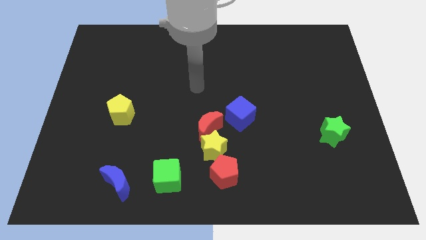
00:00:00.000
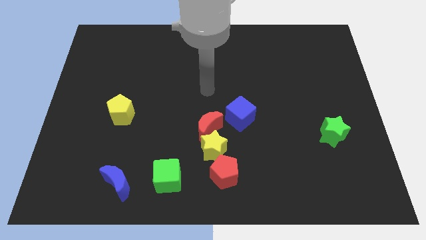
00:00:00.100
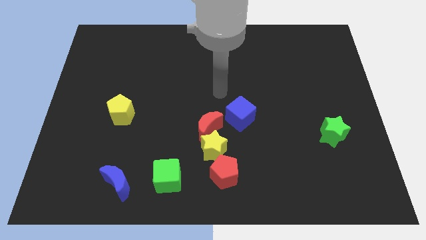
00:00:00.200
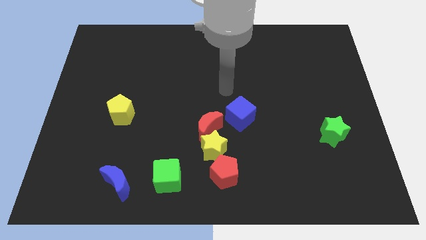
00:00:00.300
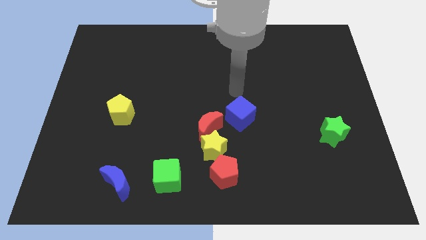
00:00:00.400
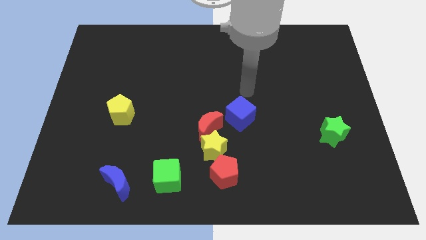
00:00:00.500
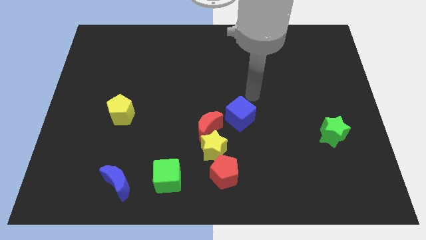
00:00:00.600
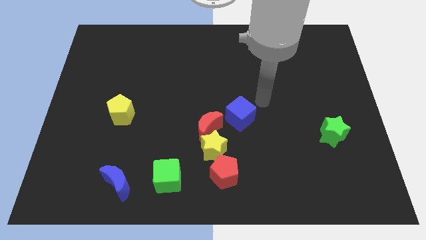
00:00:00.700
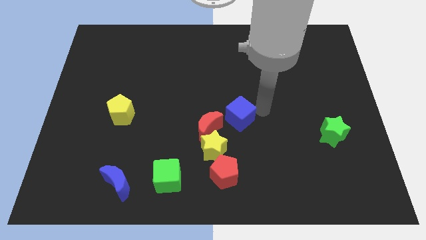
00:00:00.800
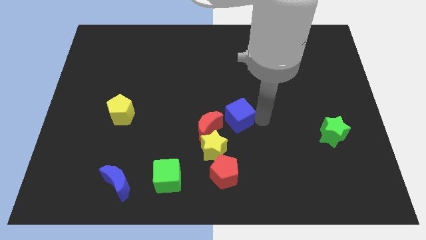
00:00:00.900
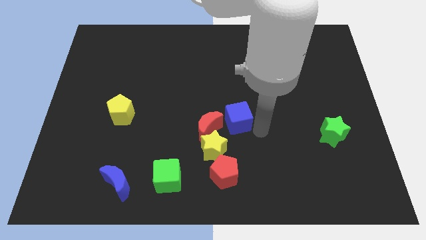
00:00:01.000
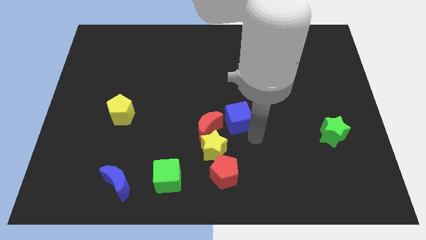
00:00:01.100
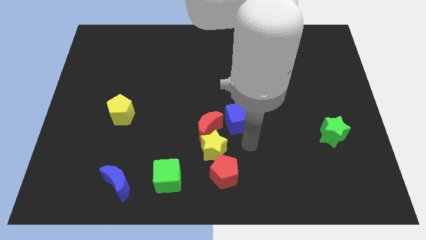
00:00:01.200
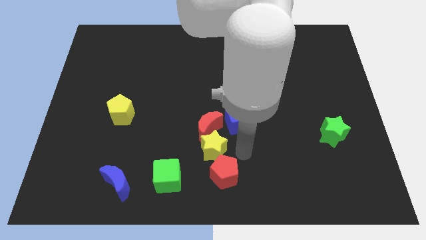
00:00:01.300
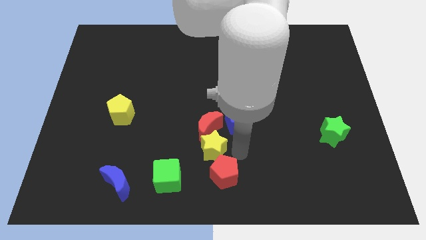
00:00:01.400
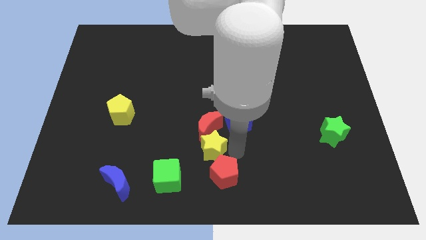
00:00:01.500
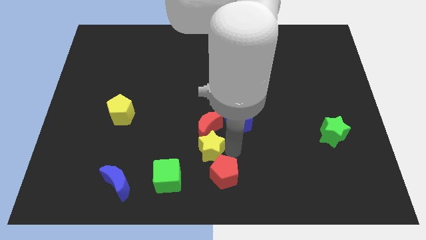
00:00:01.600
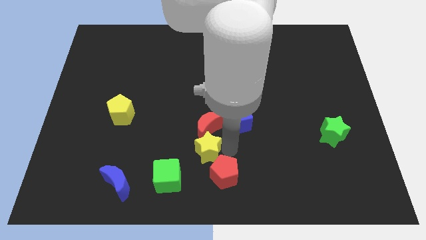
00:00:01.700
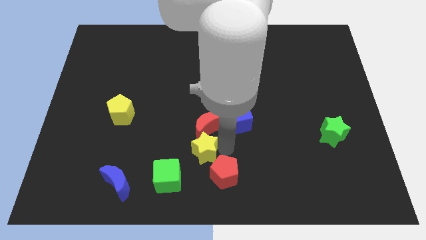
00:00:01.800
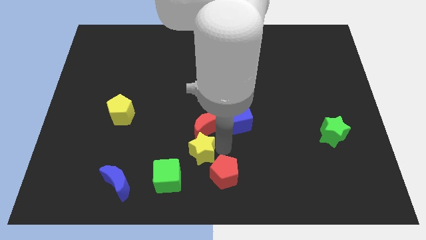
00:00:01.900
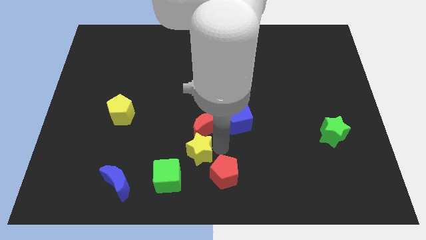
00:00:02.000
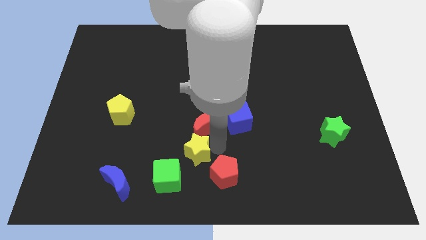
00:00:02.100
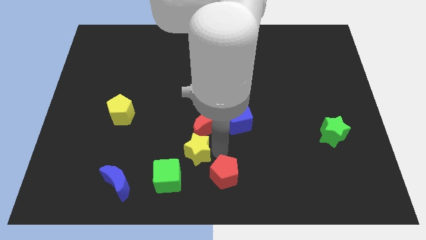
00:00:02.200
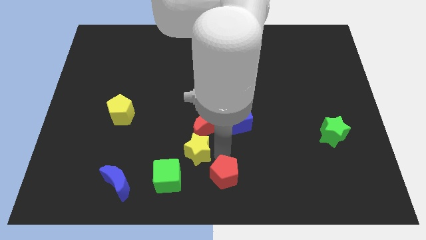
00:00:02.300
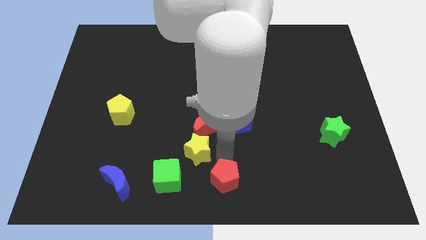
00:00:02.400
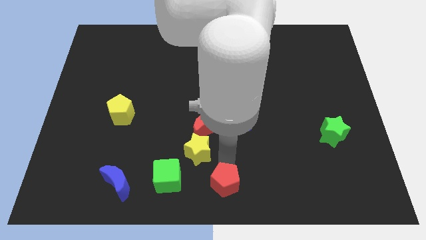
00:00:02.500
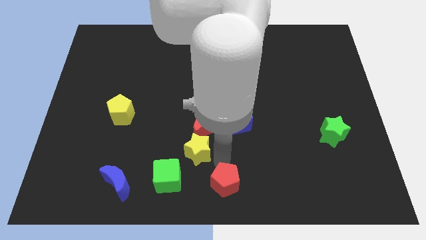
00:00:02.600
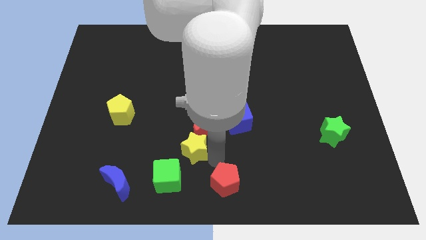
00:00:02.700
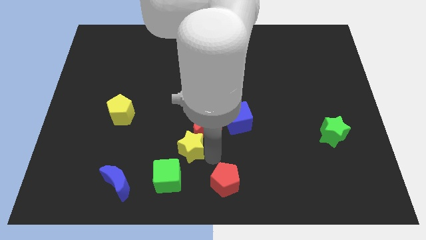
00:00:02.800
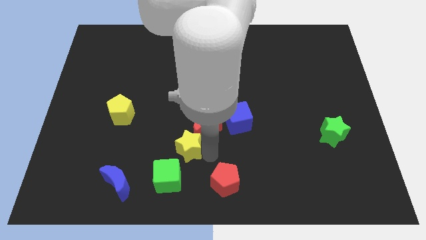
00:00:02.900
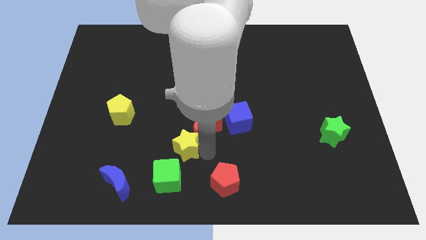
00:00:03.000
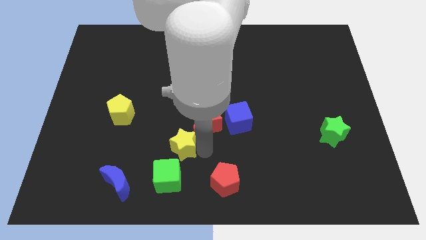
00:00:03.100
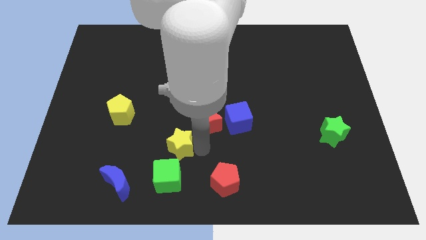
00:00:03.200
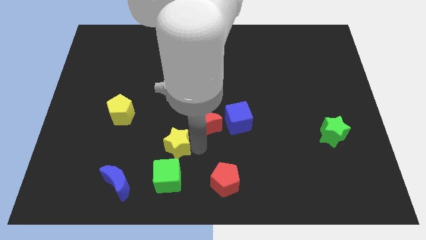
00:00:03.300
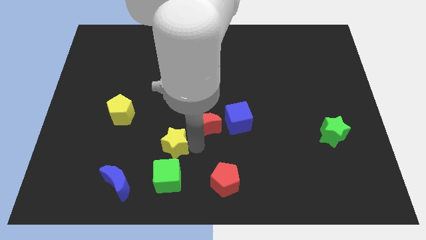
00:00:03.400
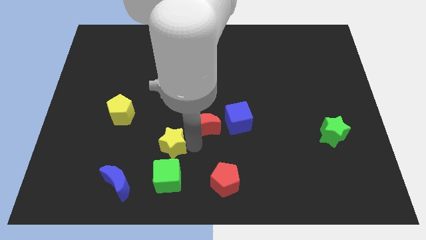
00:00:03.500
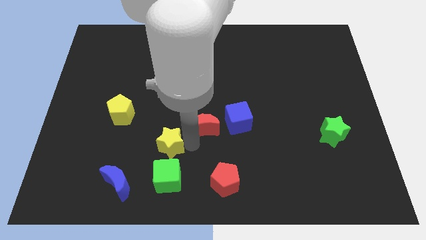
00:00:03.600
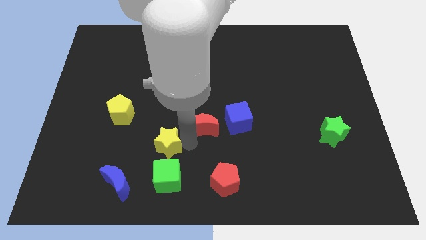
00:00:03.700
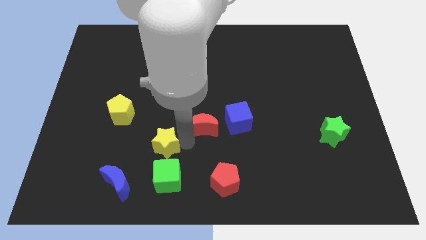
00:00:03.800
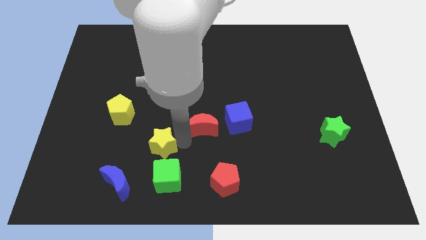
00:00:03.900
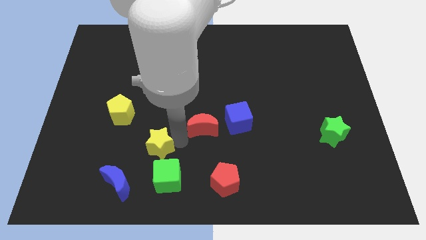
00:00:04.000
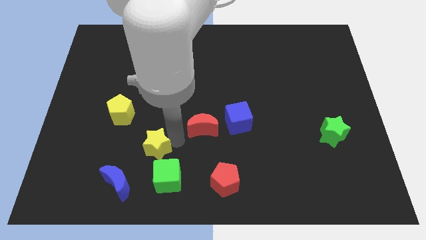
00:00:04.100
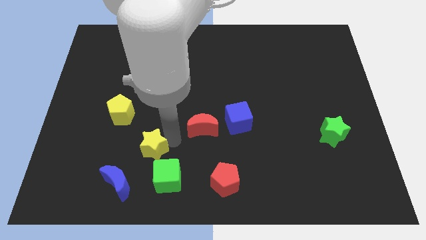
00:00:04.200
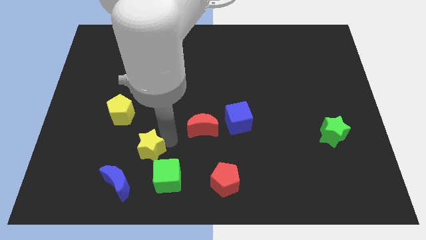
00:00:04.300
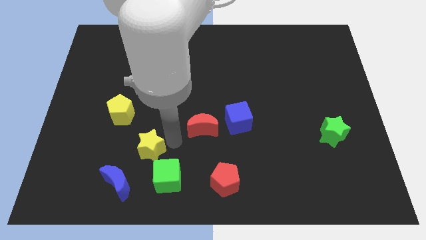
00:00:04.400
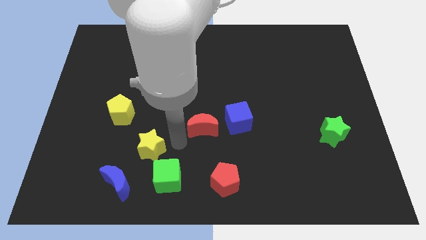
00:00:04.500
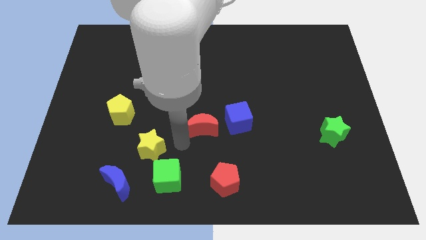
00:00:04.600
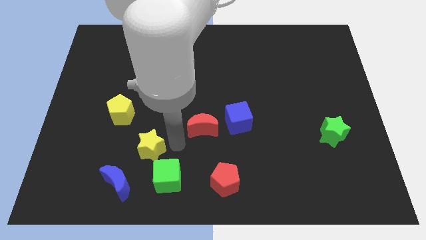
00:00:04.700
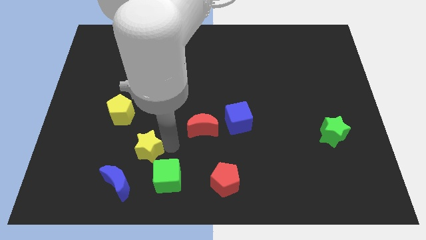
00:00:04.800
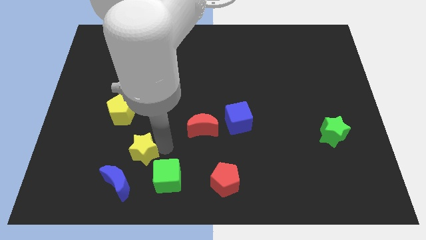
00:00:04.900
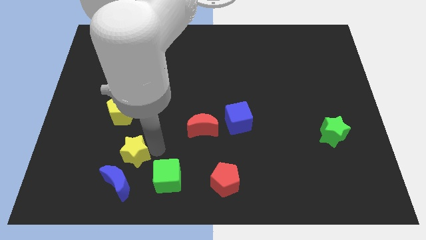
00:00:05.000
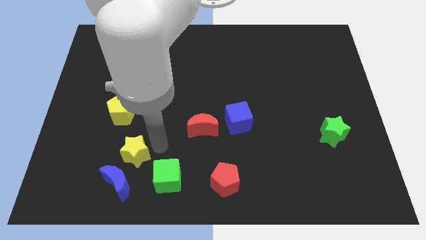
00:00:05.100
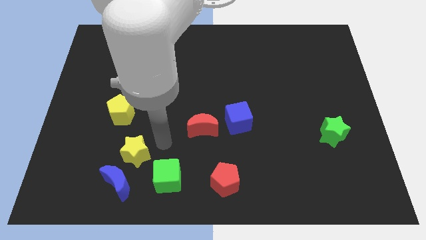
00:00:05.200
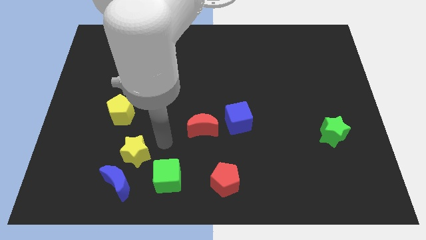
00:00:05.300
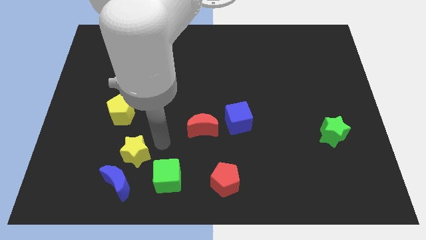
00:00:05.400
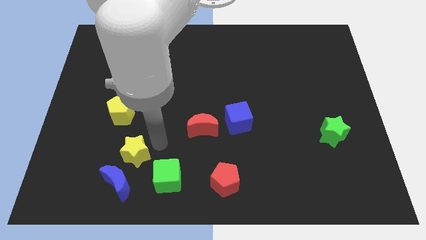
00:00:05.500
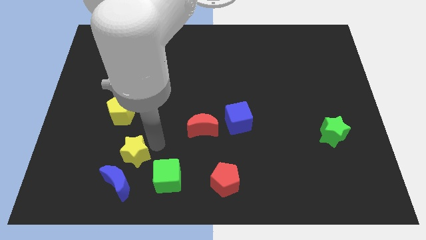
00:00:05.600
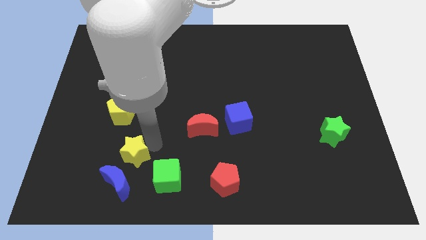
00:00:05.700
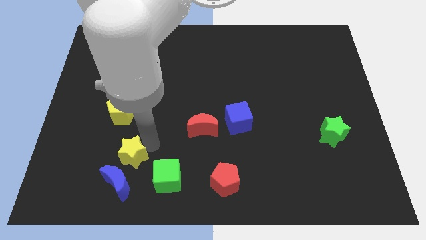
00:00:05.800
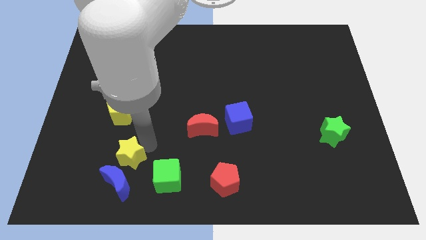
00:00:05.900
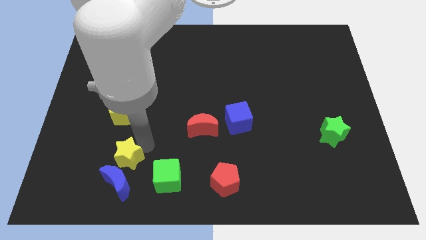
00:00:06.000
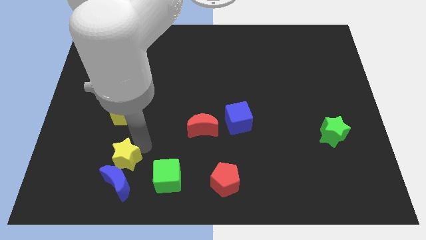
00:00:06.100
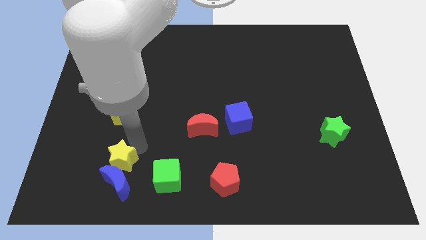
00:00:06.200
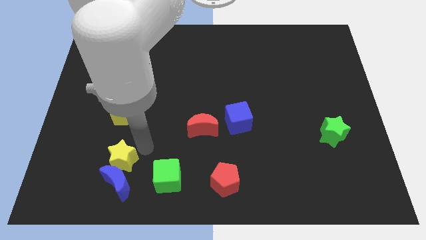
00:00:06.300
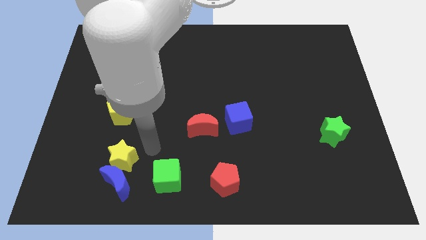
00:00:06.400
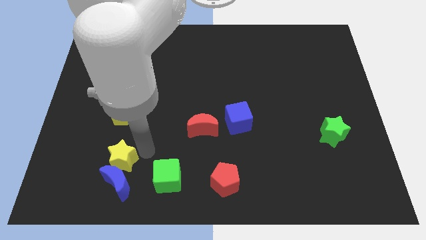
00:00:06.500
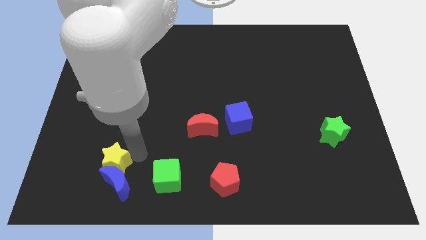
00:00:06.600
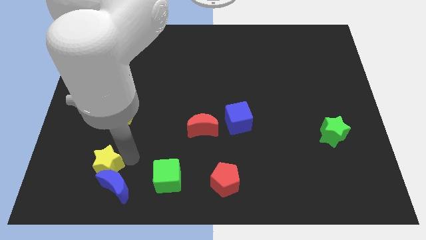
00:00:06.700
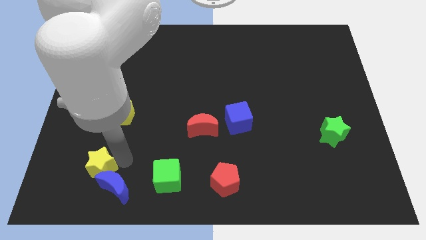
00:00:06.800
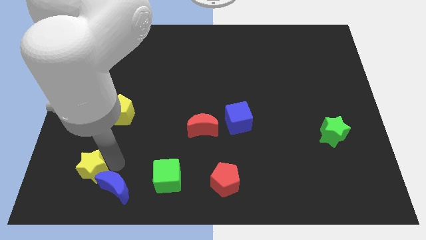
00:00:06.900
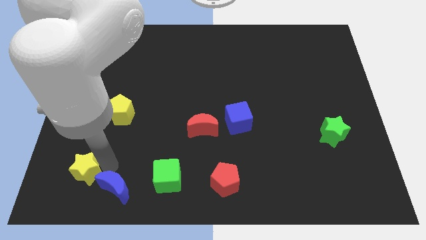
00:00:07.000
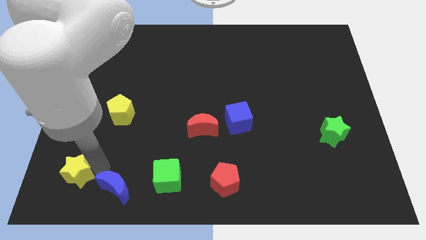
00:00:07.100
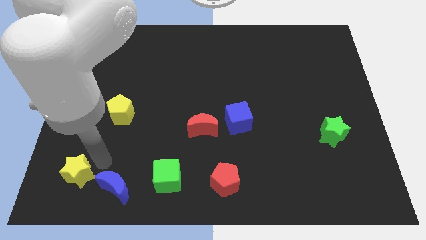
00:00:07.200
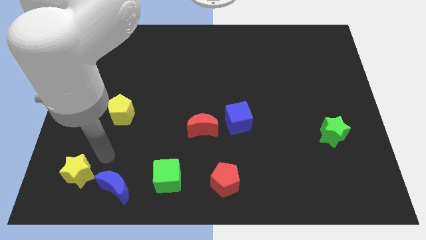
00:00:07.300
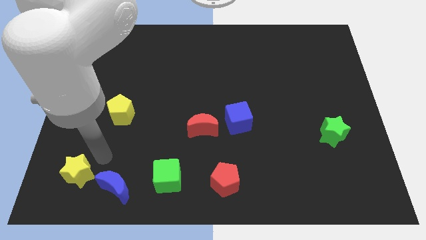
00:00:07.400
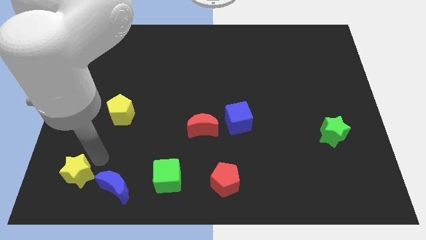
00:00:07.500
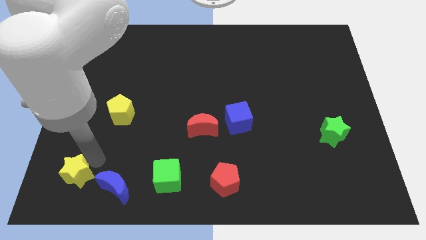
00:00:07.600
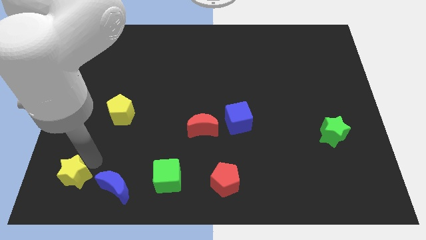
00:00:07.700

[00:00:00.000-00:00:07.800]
move the yellow star to the lower left corner
